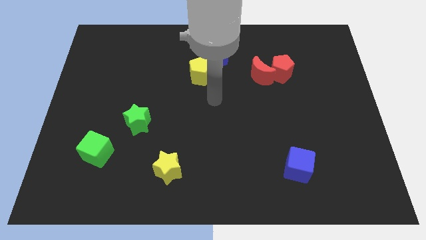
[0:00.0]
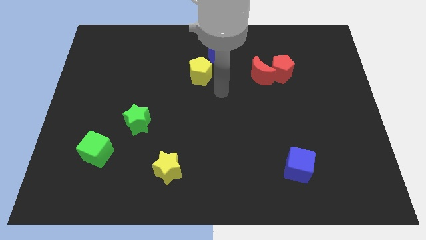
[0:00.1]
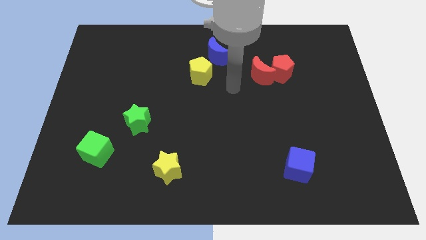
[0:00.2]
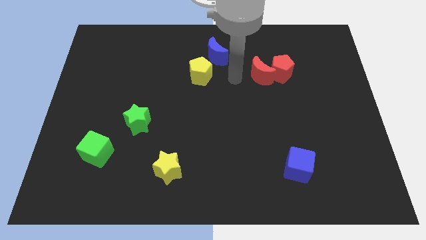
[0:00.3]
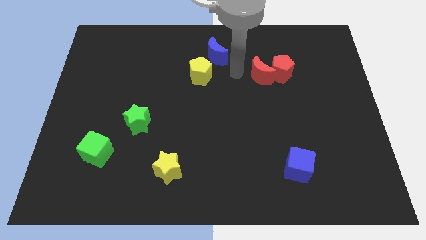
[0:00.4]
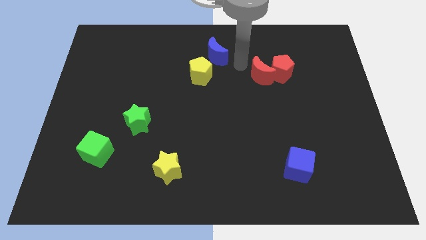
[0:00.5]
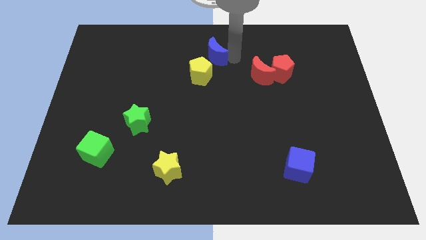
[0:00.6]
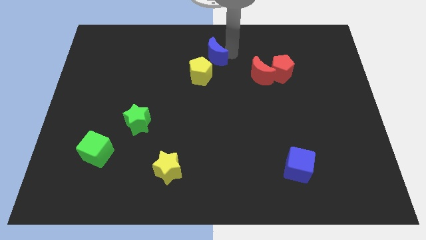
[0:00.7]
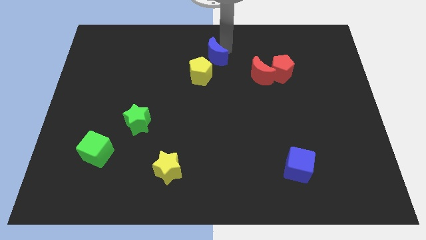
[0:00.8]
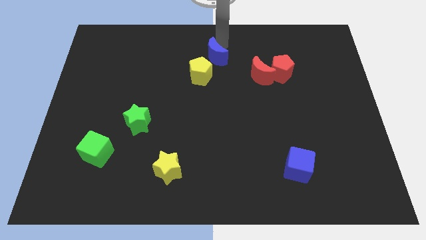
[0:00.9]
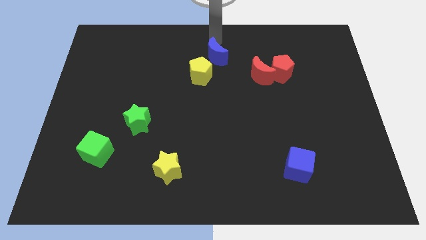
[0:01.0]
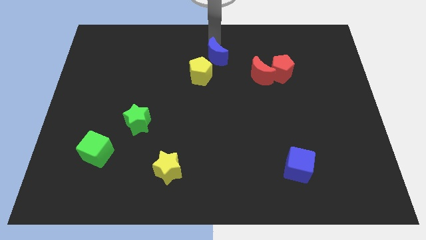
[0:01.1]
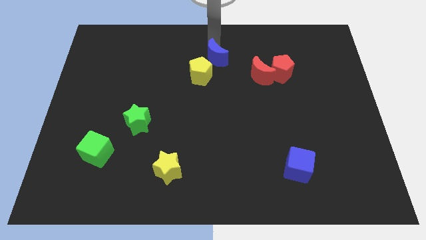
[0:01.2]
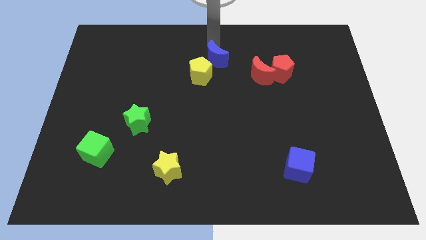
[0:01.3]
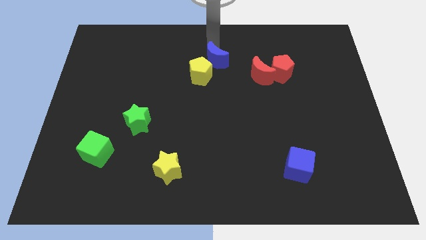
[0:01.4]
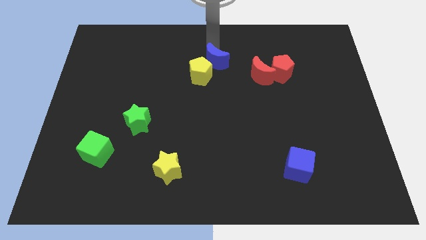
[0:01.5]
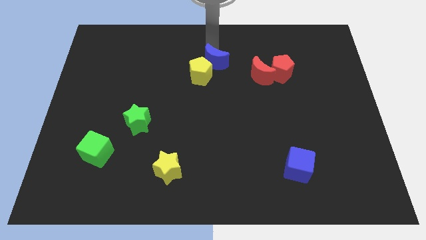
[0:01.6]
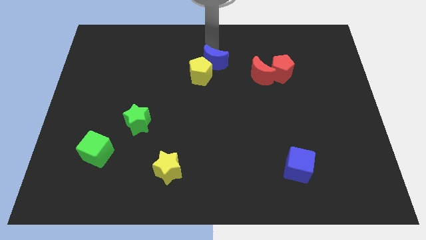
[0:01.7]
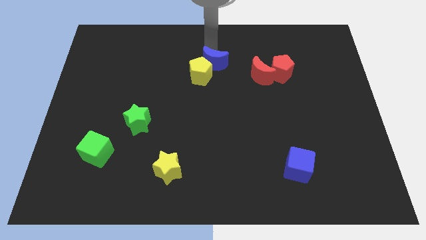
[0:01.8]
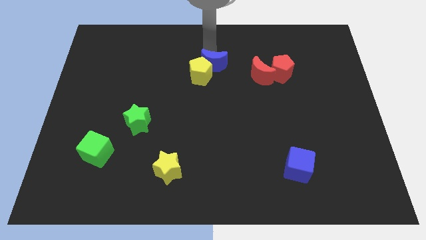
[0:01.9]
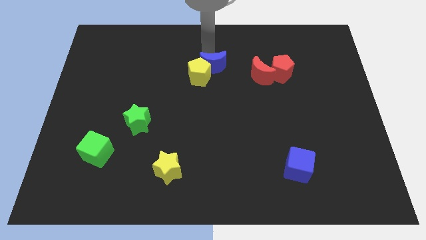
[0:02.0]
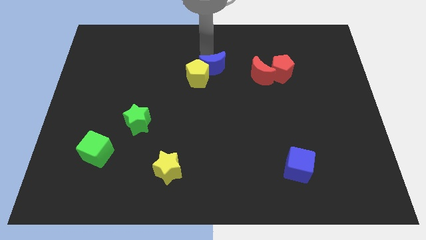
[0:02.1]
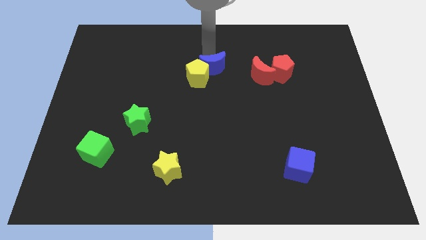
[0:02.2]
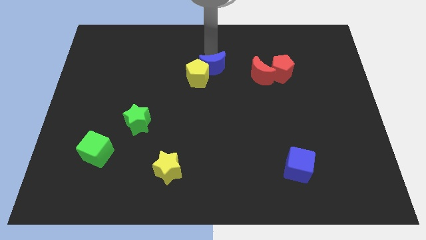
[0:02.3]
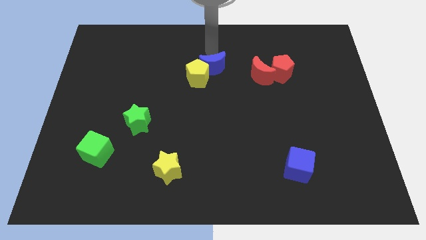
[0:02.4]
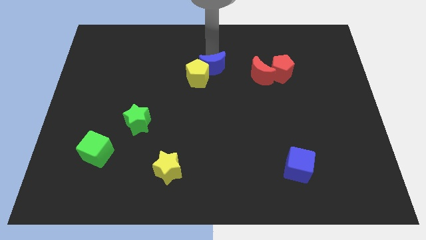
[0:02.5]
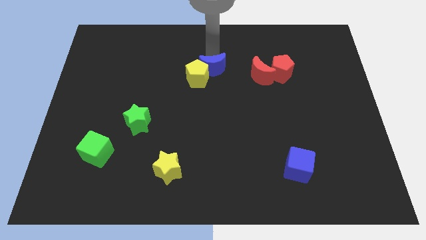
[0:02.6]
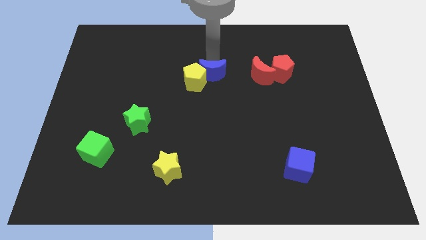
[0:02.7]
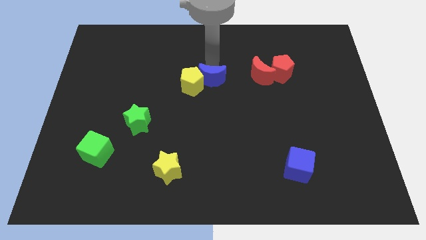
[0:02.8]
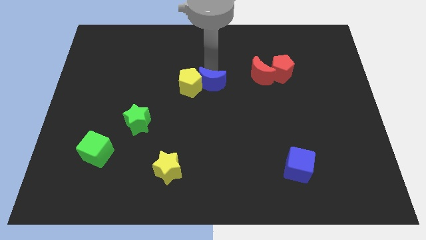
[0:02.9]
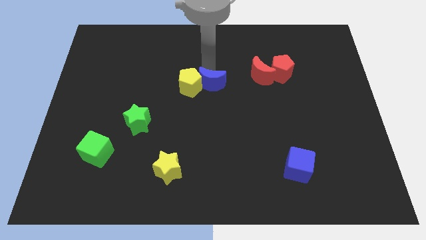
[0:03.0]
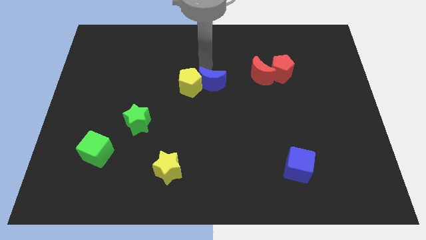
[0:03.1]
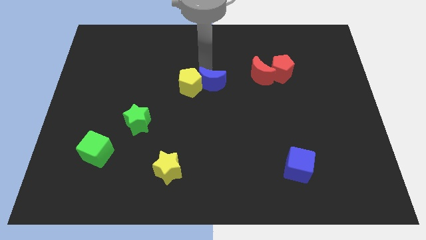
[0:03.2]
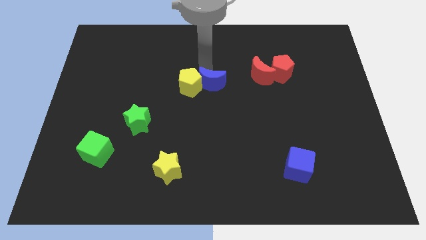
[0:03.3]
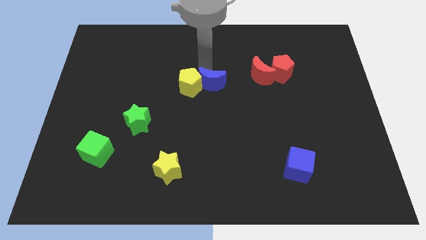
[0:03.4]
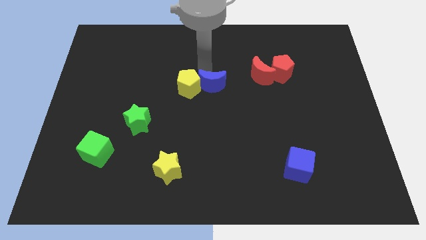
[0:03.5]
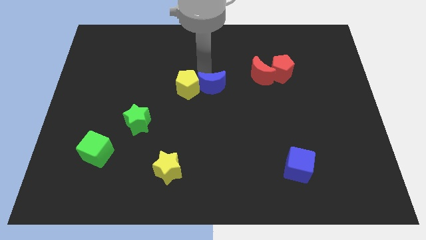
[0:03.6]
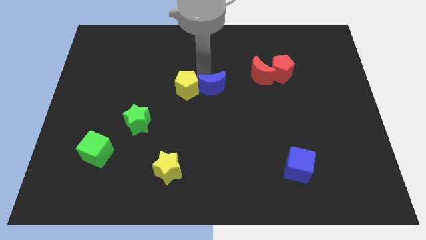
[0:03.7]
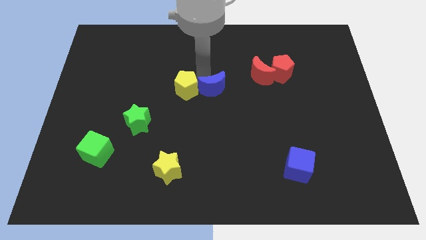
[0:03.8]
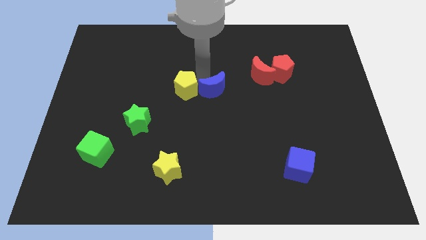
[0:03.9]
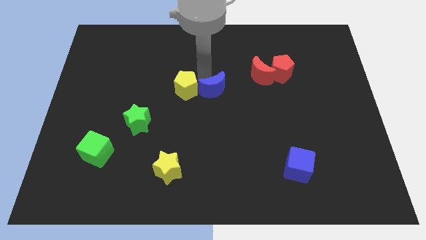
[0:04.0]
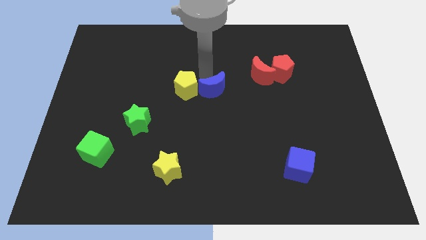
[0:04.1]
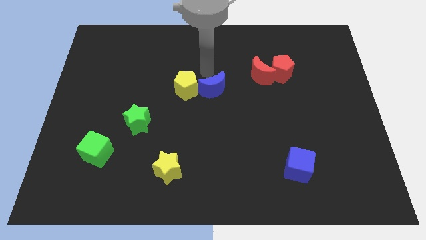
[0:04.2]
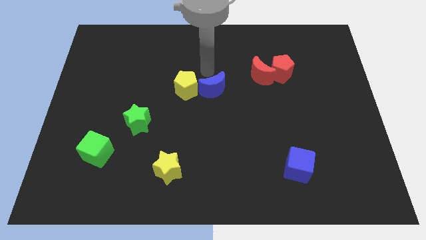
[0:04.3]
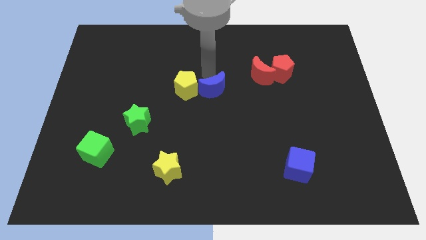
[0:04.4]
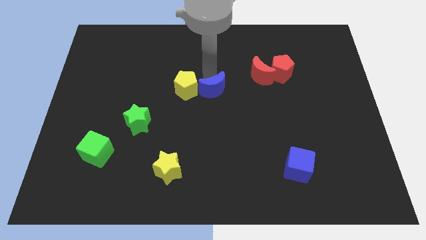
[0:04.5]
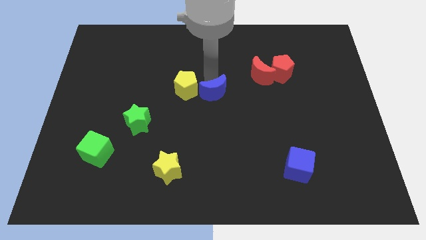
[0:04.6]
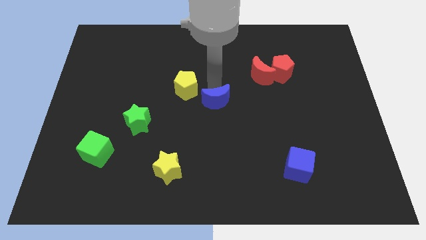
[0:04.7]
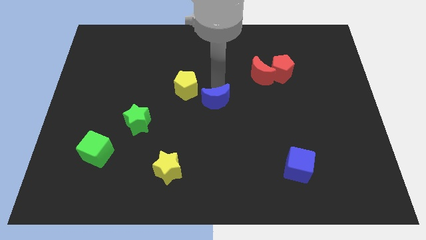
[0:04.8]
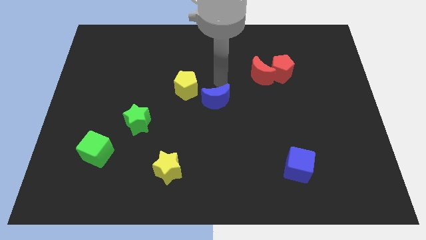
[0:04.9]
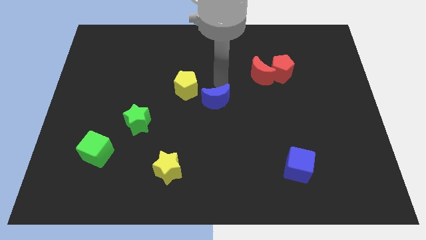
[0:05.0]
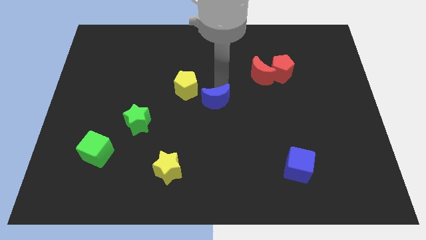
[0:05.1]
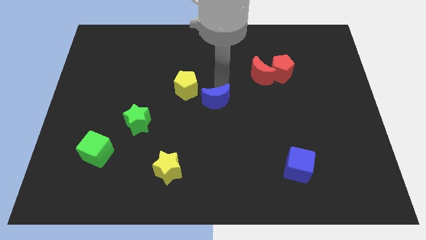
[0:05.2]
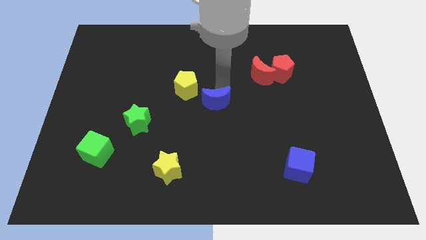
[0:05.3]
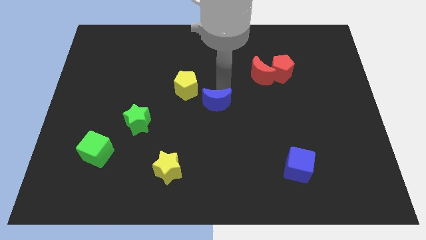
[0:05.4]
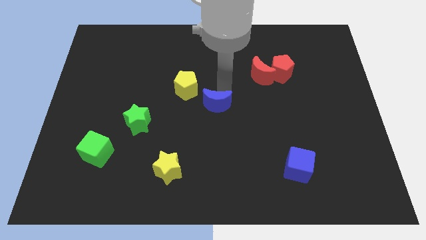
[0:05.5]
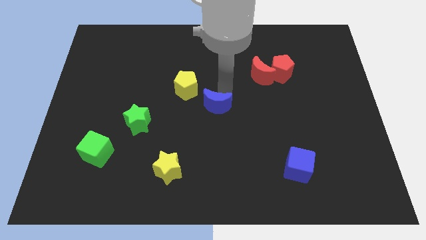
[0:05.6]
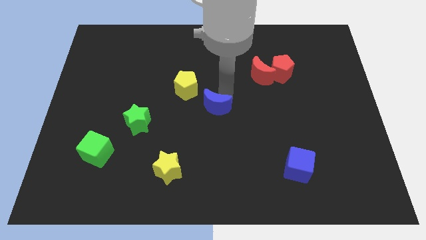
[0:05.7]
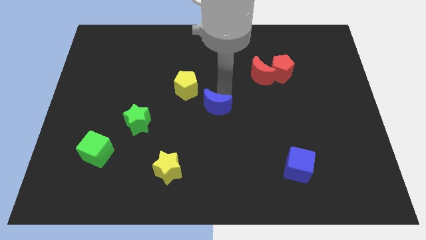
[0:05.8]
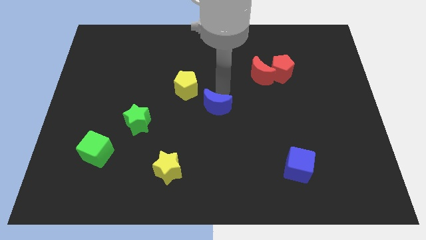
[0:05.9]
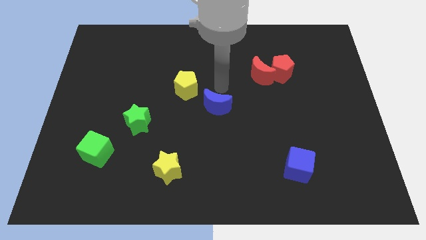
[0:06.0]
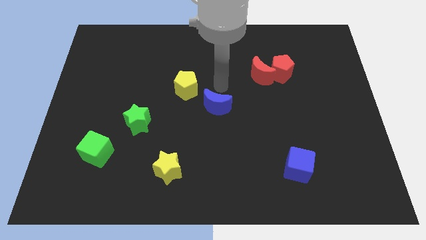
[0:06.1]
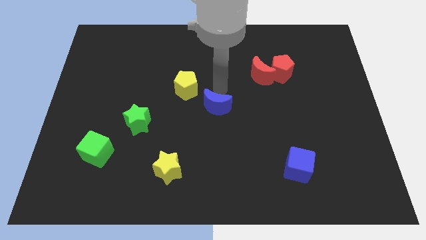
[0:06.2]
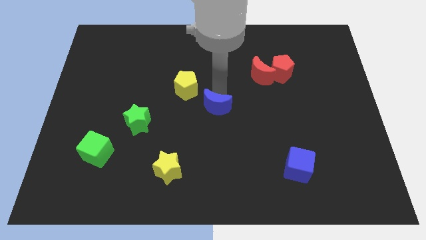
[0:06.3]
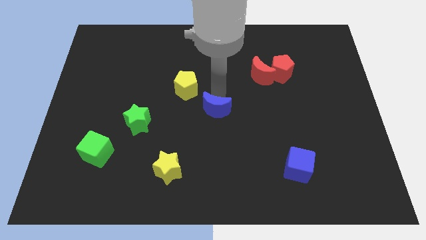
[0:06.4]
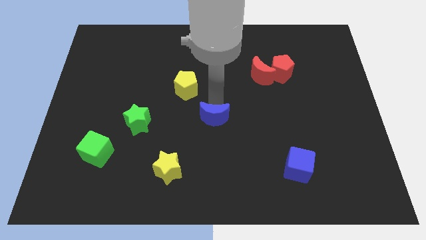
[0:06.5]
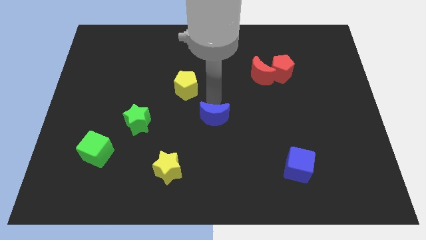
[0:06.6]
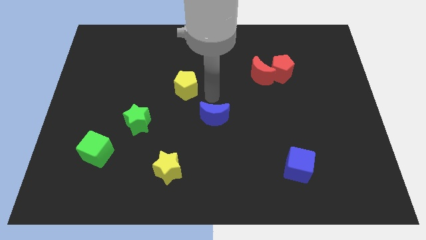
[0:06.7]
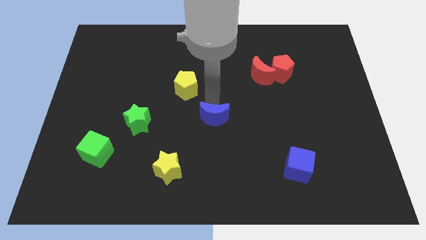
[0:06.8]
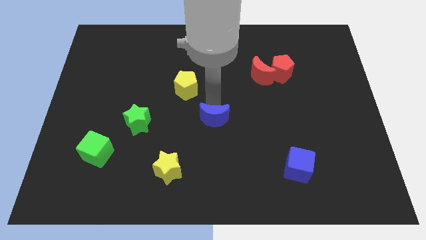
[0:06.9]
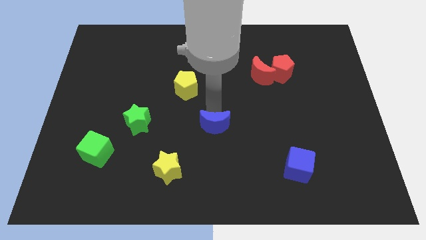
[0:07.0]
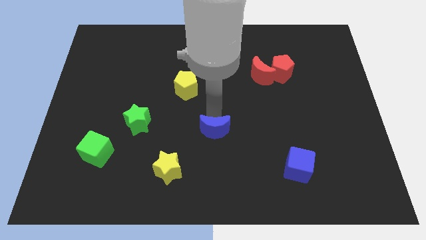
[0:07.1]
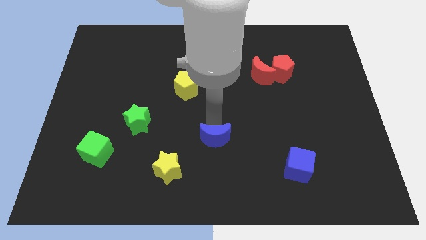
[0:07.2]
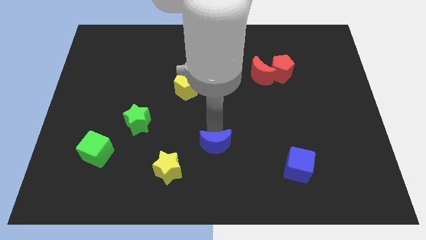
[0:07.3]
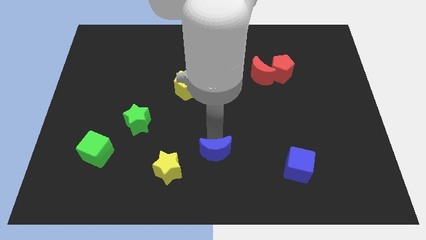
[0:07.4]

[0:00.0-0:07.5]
move the blue moon to the bottom side

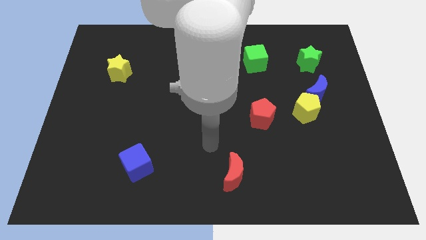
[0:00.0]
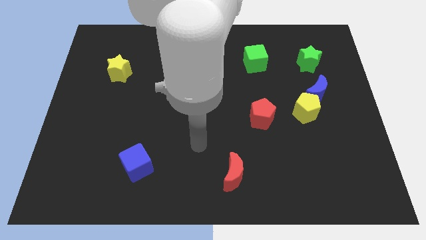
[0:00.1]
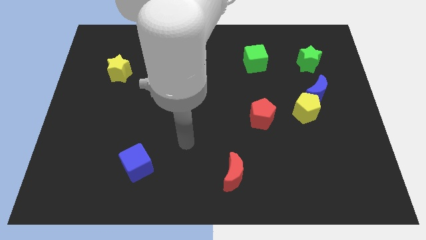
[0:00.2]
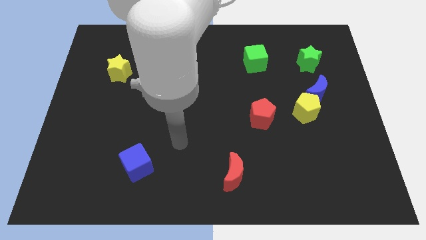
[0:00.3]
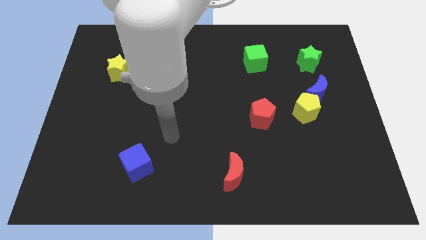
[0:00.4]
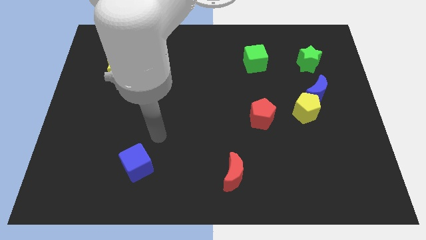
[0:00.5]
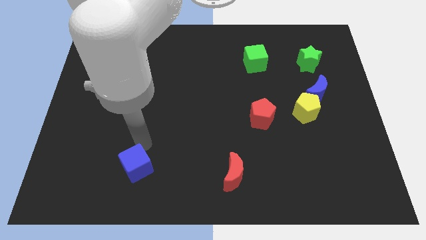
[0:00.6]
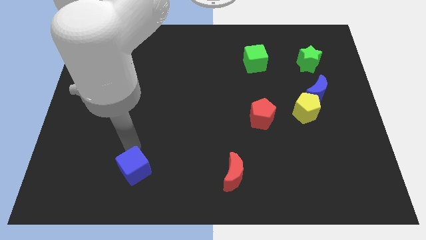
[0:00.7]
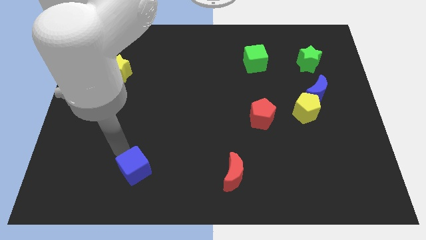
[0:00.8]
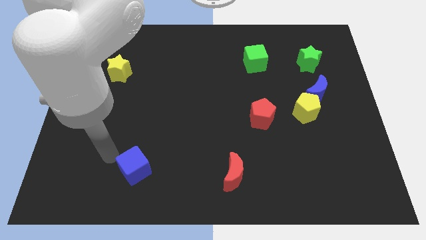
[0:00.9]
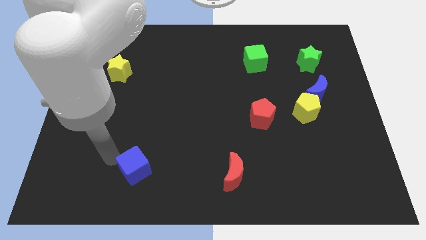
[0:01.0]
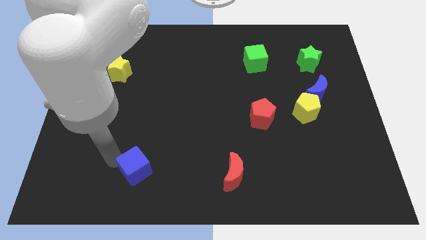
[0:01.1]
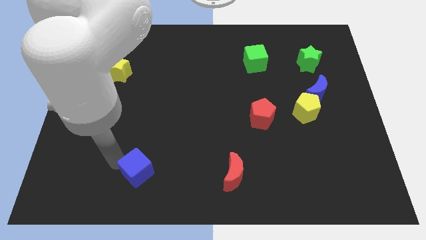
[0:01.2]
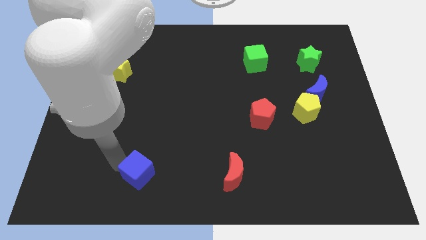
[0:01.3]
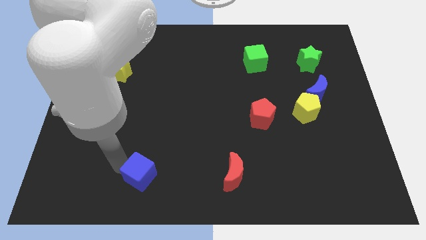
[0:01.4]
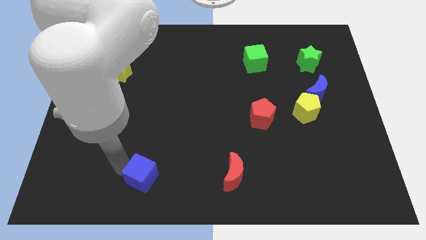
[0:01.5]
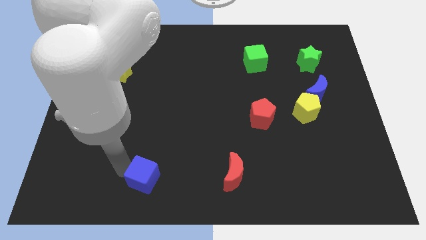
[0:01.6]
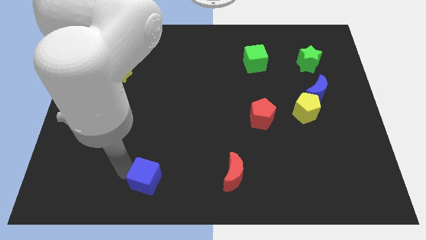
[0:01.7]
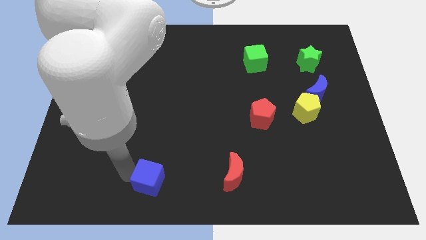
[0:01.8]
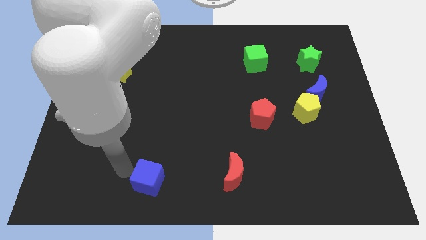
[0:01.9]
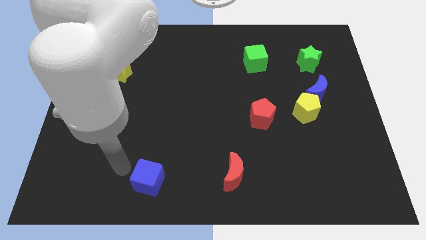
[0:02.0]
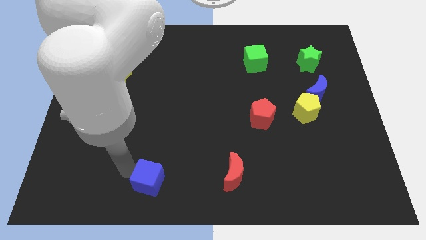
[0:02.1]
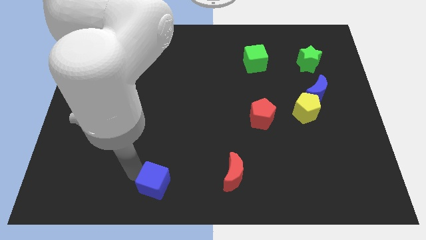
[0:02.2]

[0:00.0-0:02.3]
slide the blue cube to the bottom side
